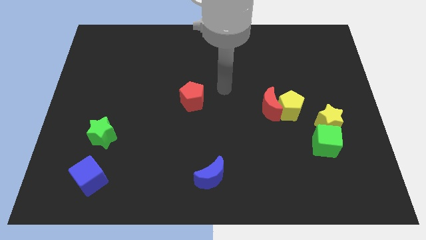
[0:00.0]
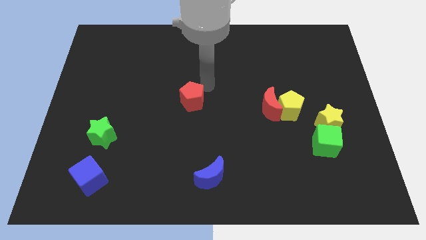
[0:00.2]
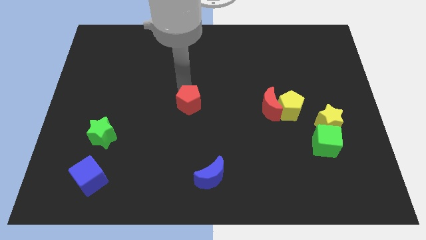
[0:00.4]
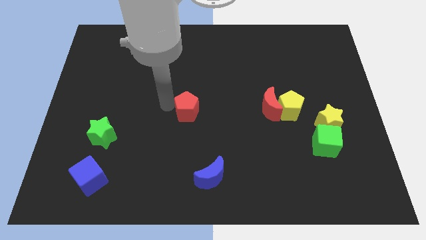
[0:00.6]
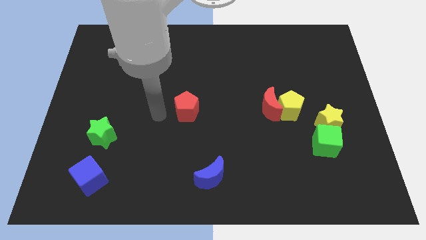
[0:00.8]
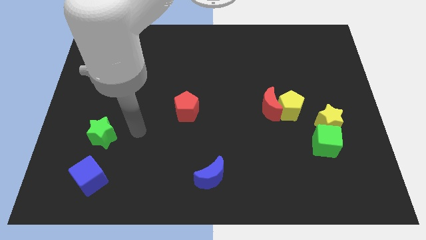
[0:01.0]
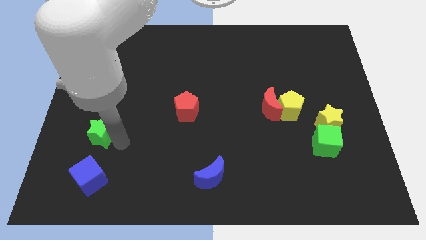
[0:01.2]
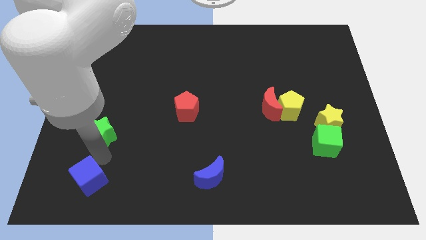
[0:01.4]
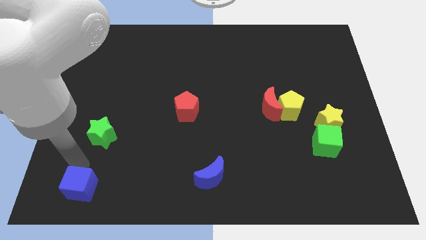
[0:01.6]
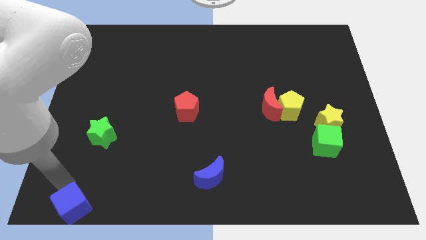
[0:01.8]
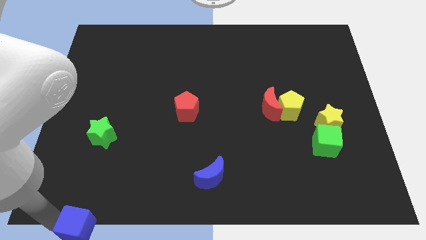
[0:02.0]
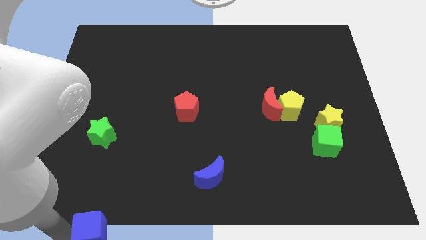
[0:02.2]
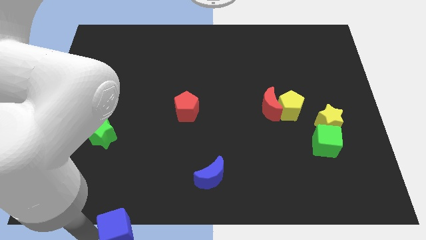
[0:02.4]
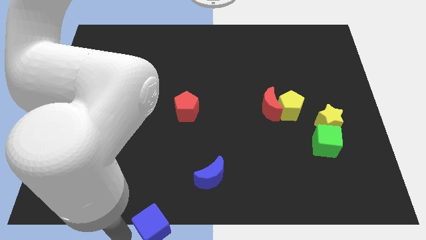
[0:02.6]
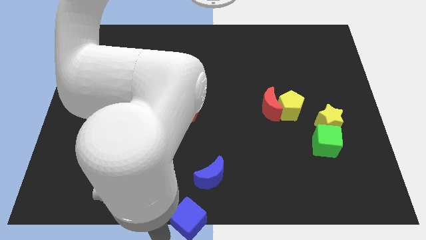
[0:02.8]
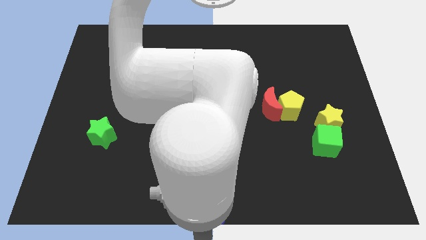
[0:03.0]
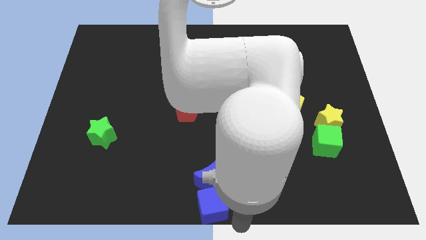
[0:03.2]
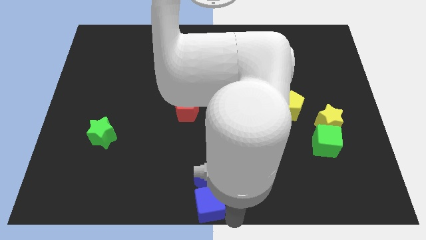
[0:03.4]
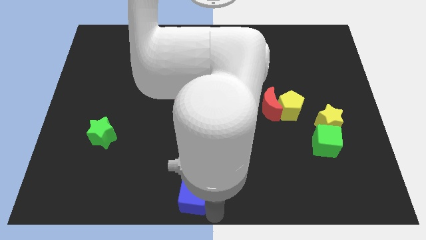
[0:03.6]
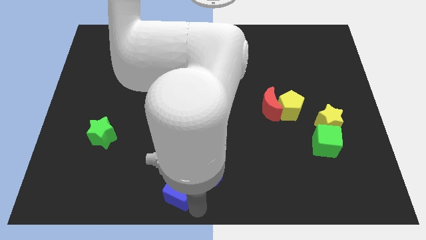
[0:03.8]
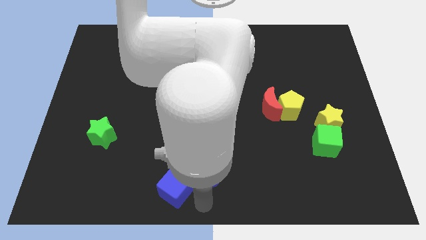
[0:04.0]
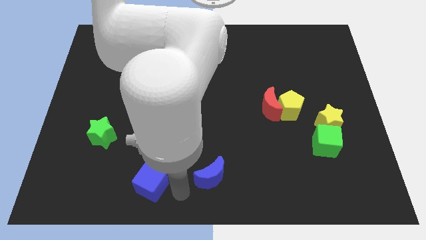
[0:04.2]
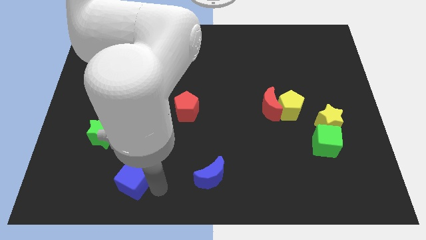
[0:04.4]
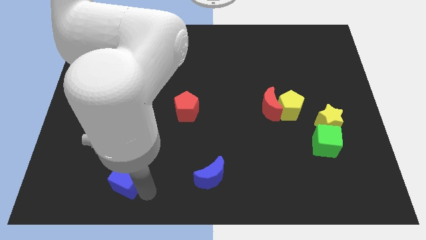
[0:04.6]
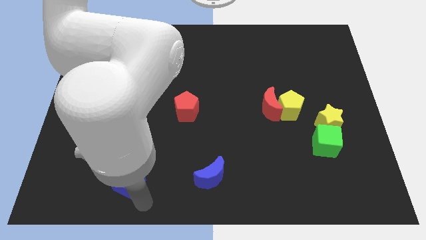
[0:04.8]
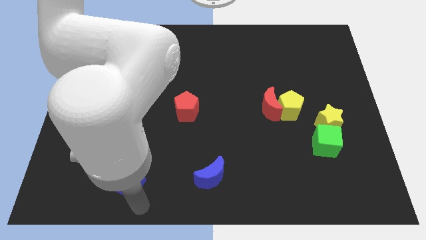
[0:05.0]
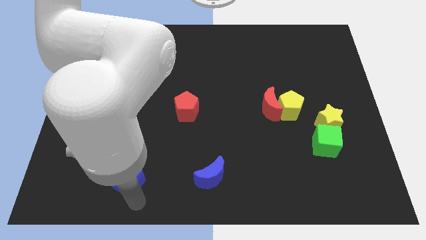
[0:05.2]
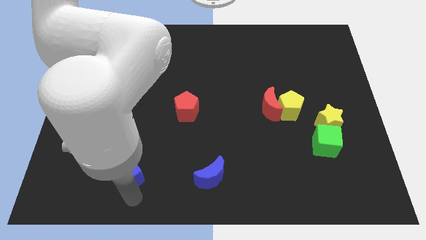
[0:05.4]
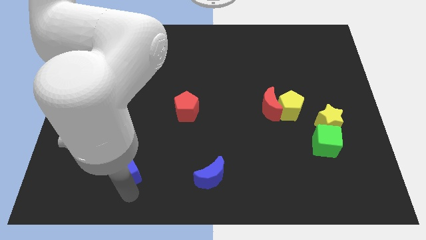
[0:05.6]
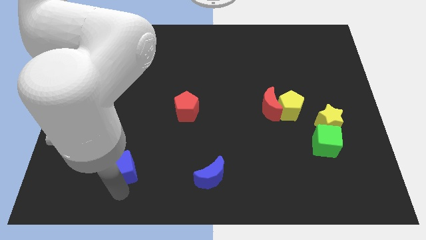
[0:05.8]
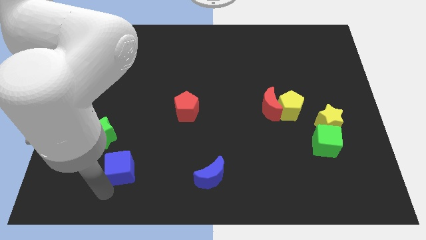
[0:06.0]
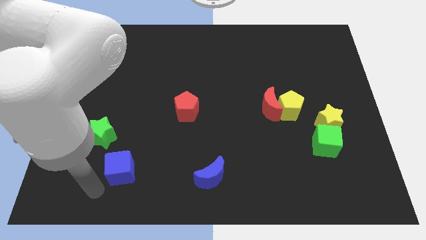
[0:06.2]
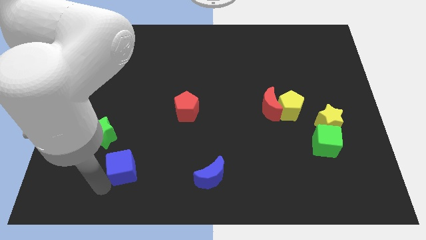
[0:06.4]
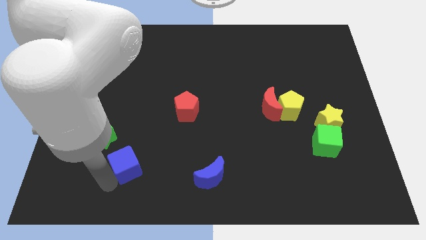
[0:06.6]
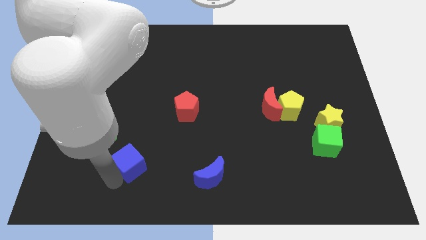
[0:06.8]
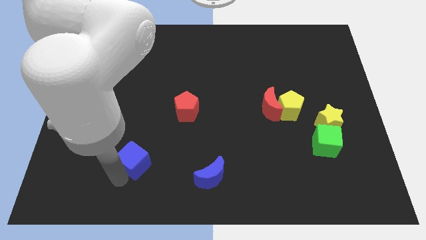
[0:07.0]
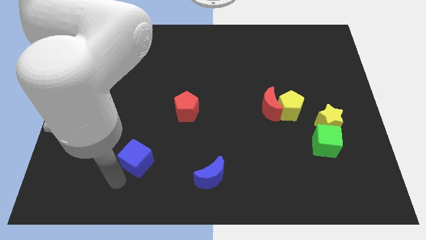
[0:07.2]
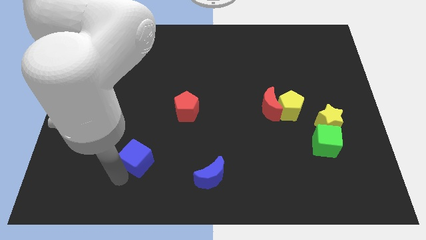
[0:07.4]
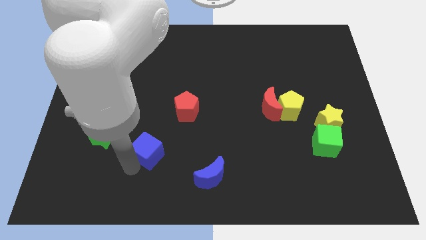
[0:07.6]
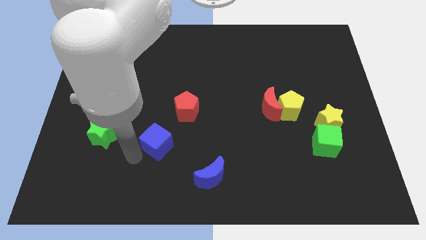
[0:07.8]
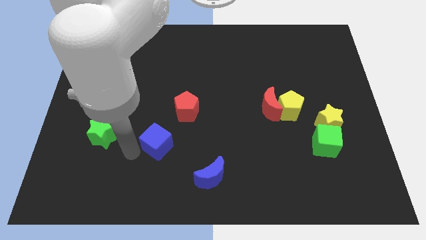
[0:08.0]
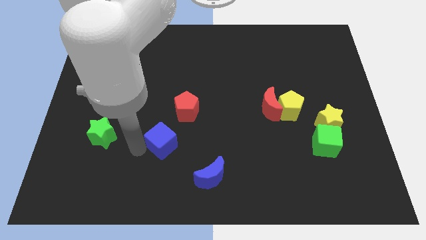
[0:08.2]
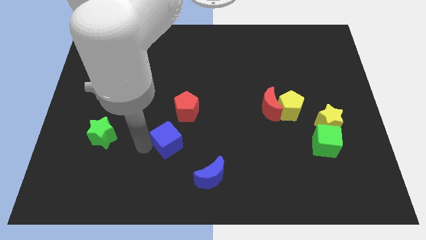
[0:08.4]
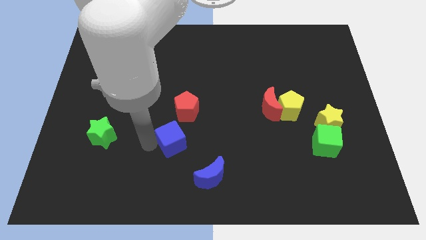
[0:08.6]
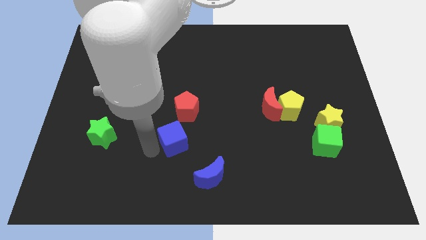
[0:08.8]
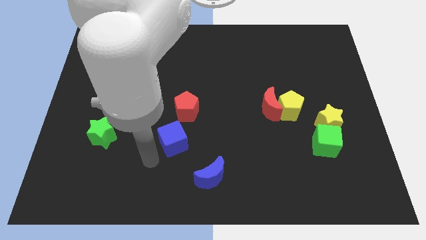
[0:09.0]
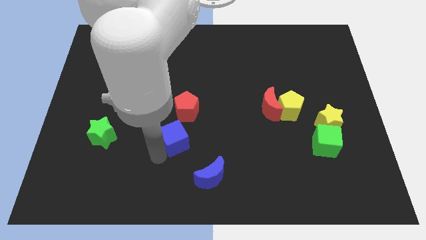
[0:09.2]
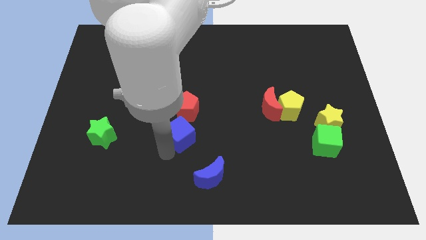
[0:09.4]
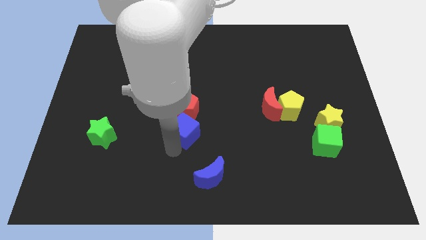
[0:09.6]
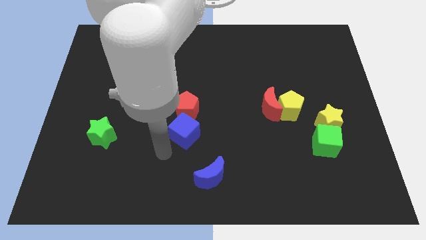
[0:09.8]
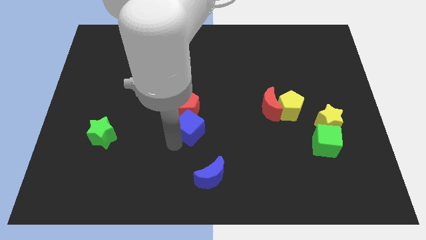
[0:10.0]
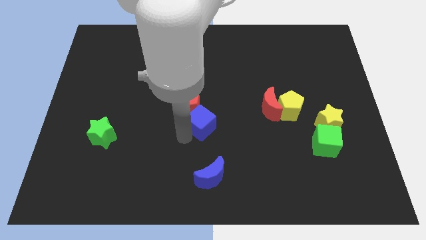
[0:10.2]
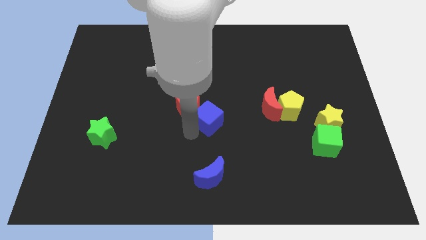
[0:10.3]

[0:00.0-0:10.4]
slide the blue cube left of the red moon

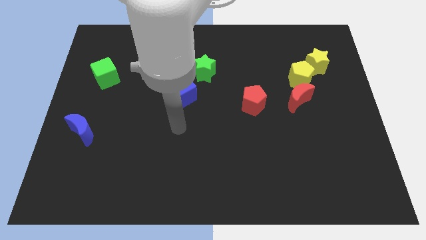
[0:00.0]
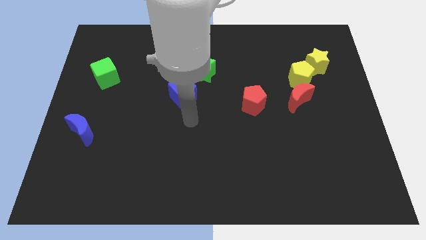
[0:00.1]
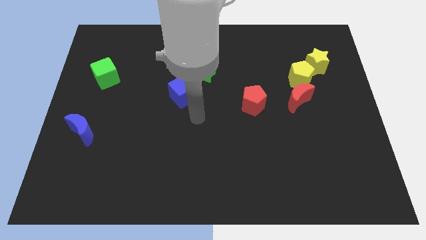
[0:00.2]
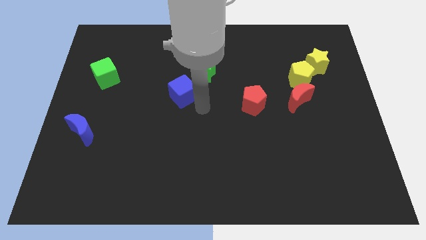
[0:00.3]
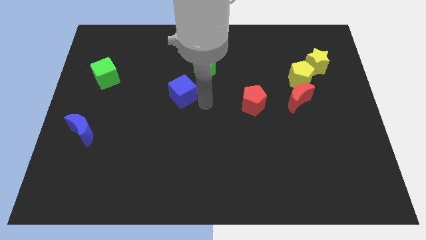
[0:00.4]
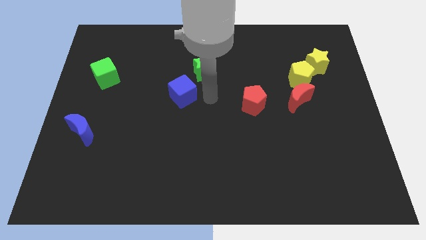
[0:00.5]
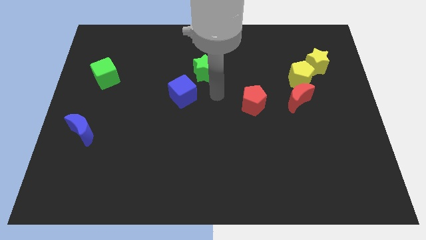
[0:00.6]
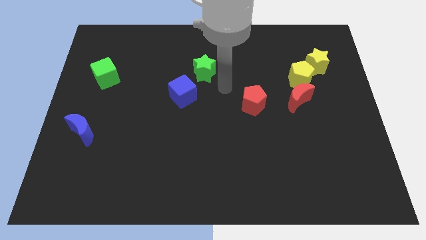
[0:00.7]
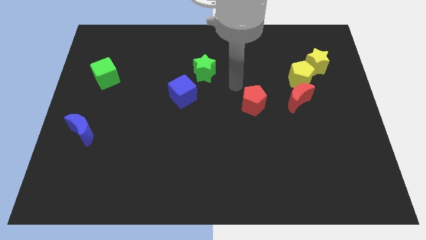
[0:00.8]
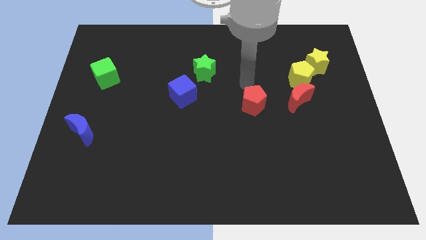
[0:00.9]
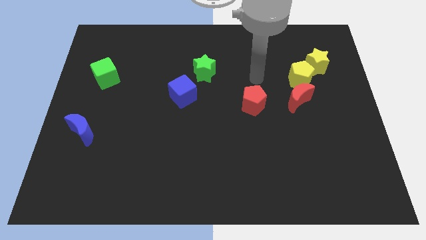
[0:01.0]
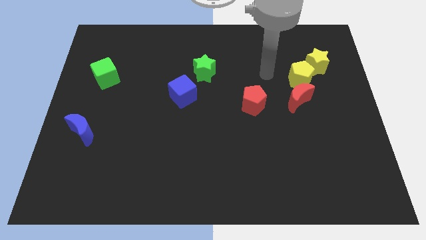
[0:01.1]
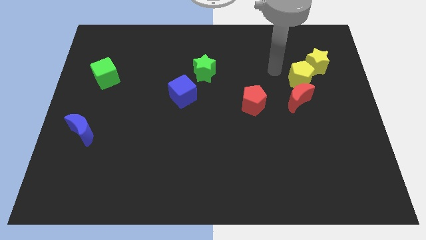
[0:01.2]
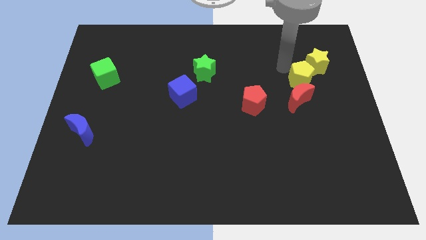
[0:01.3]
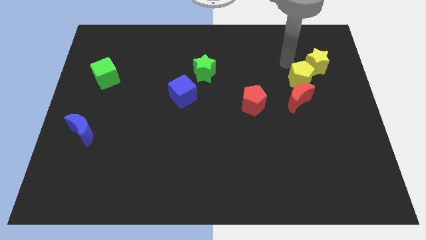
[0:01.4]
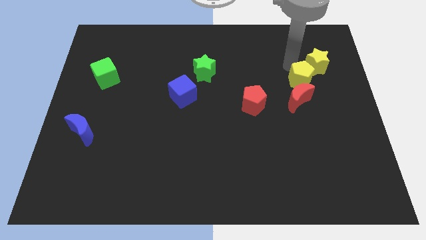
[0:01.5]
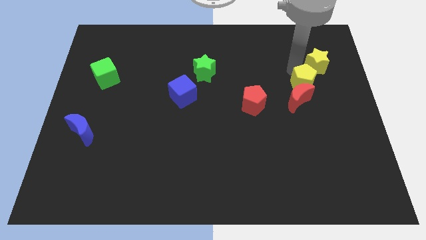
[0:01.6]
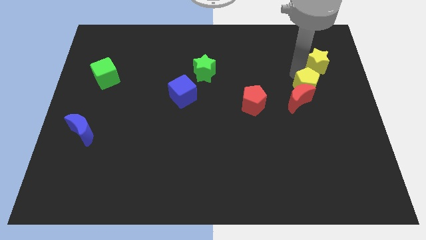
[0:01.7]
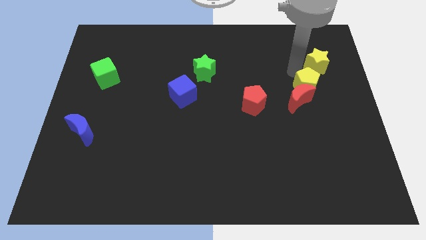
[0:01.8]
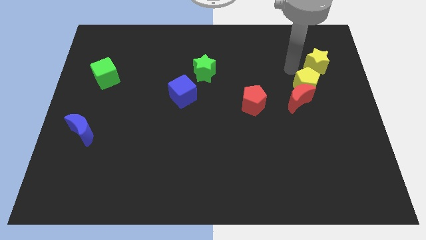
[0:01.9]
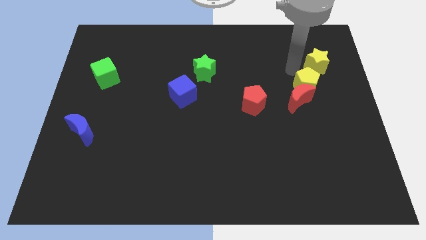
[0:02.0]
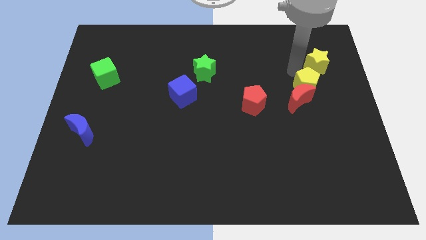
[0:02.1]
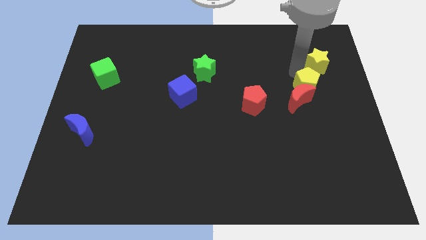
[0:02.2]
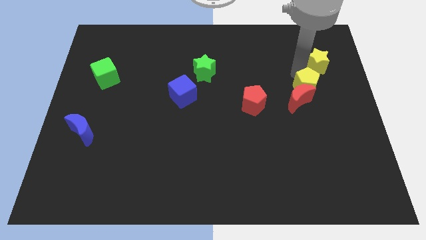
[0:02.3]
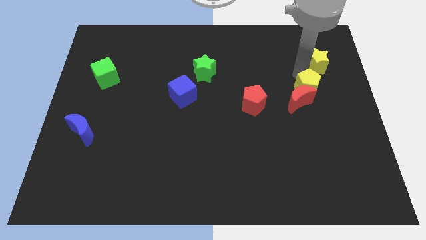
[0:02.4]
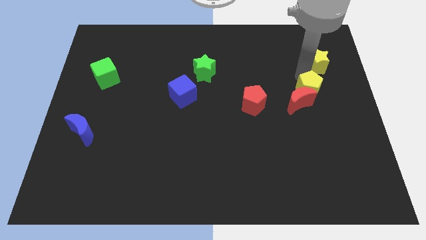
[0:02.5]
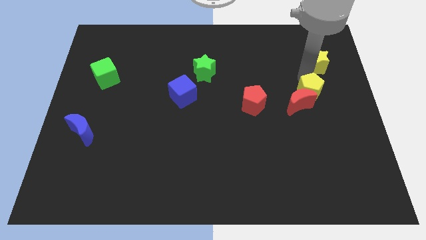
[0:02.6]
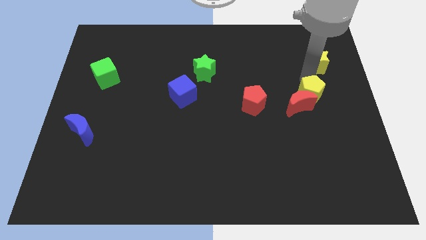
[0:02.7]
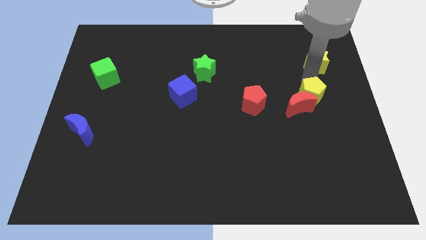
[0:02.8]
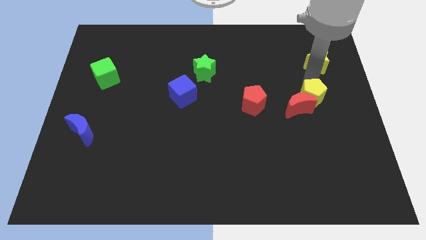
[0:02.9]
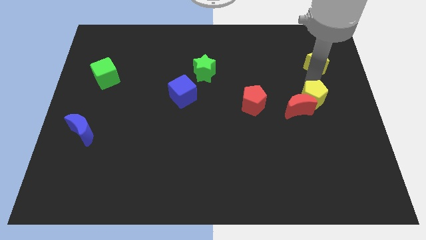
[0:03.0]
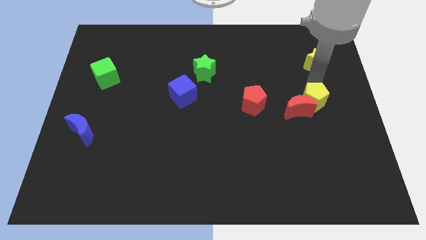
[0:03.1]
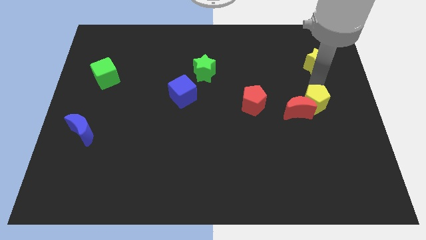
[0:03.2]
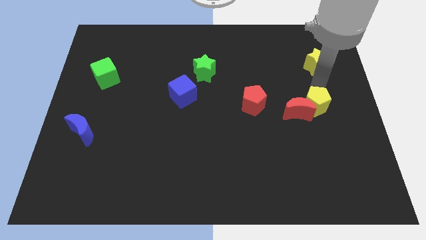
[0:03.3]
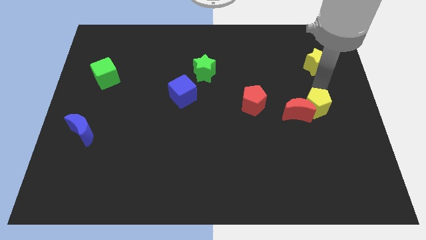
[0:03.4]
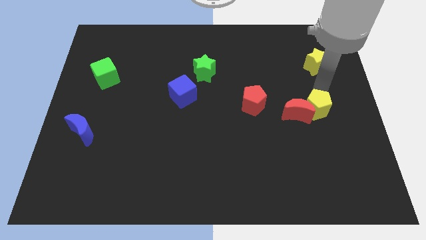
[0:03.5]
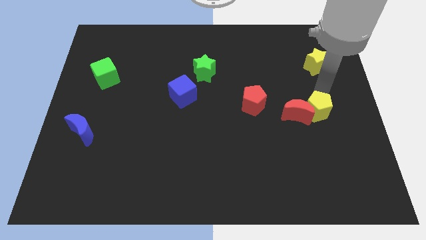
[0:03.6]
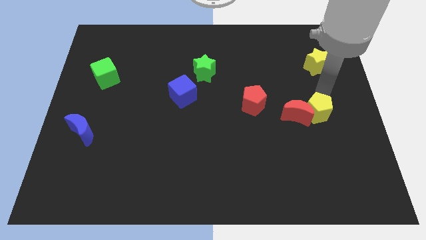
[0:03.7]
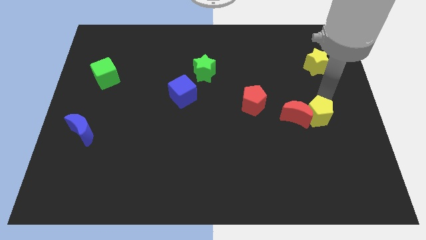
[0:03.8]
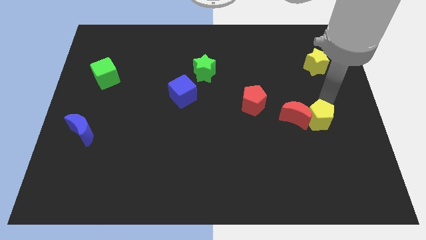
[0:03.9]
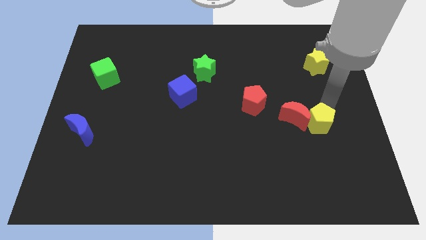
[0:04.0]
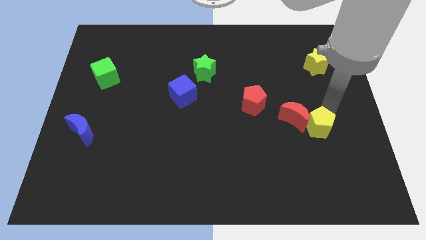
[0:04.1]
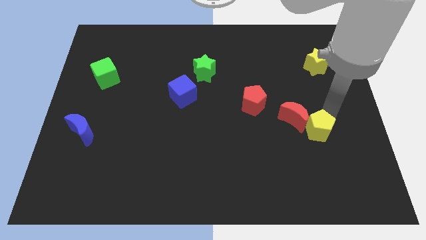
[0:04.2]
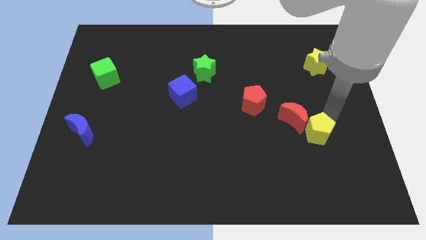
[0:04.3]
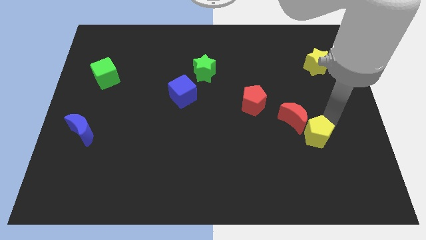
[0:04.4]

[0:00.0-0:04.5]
move the yellow pentagon to the bottom of the red moon
